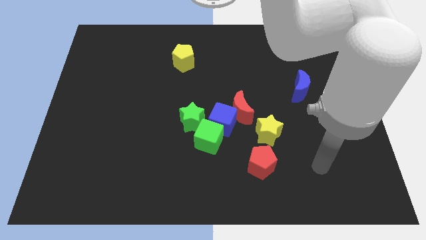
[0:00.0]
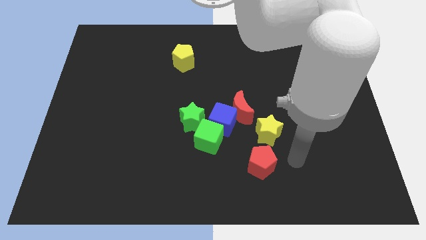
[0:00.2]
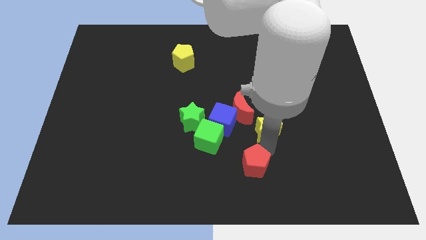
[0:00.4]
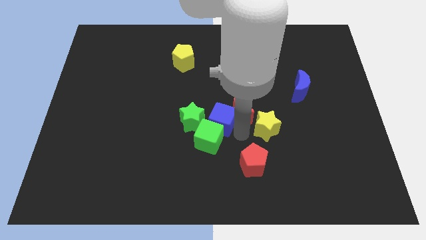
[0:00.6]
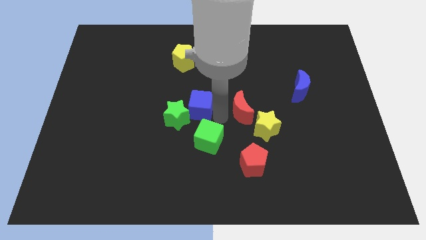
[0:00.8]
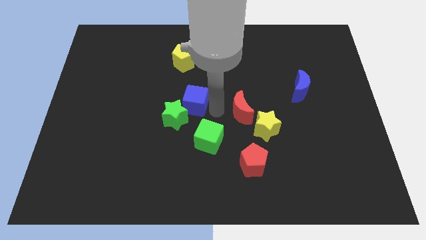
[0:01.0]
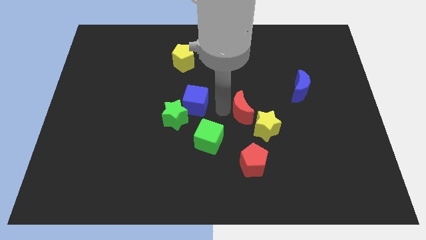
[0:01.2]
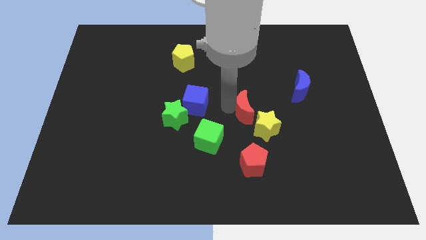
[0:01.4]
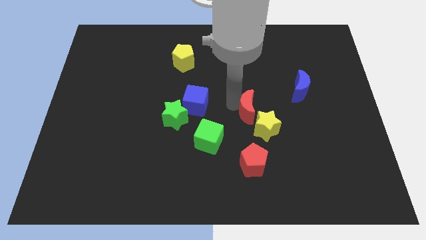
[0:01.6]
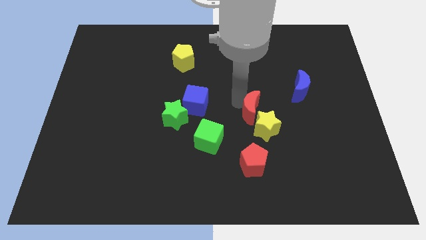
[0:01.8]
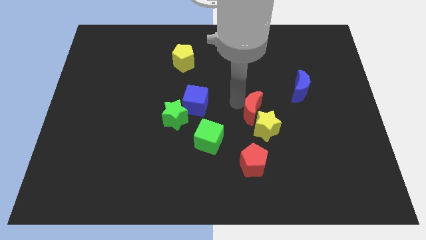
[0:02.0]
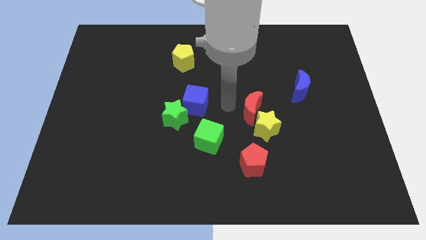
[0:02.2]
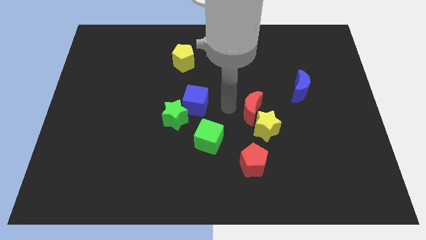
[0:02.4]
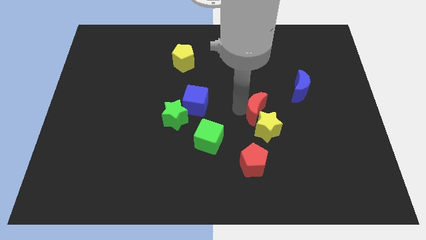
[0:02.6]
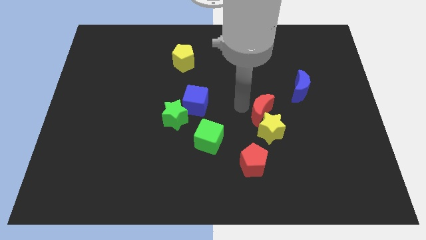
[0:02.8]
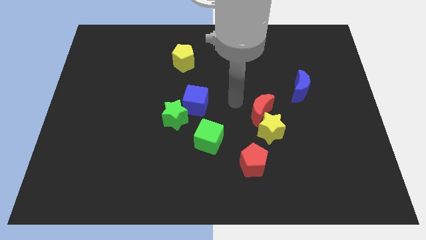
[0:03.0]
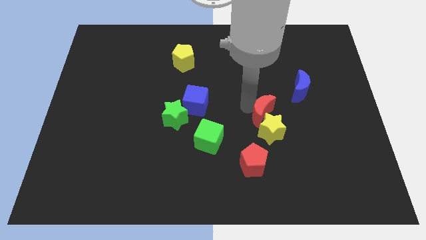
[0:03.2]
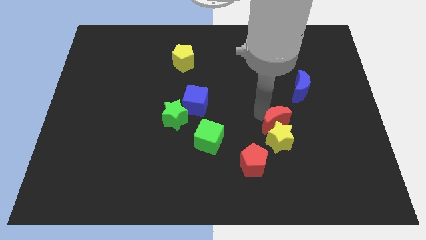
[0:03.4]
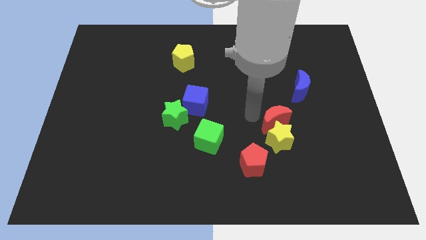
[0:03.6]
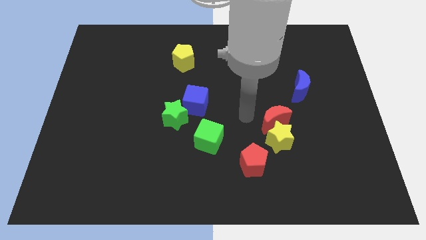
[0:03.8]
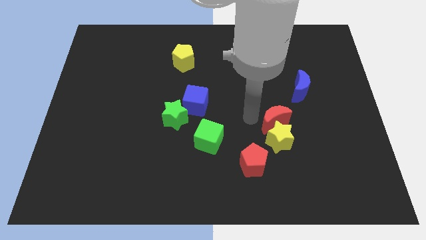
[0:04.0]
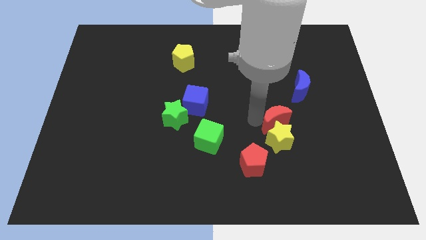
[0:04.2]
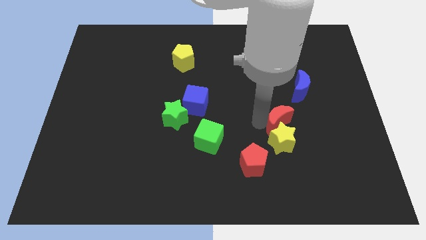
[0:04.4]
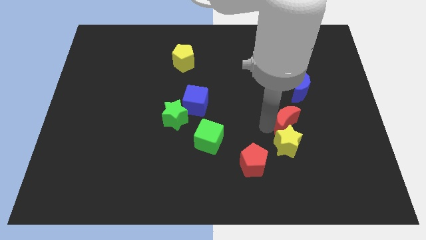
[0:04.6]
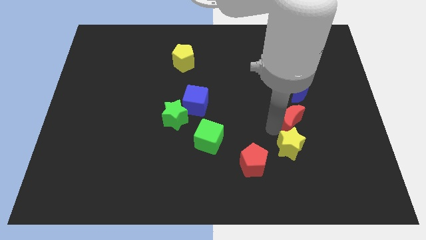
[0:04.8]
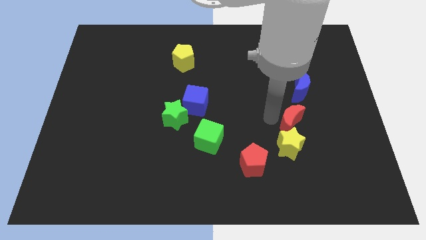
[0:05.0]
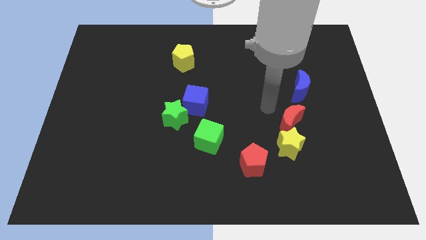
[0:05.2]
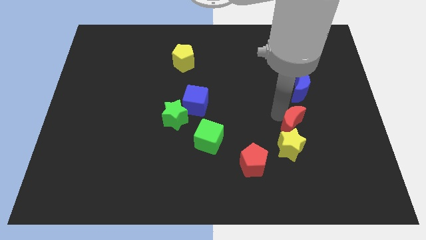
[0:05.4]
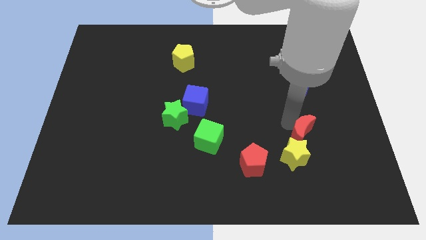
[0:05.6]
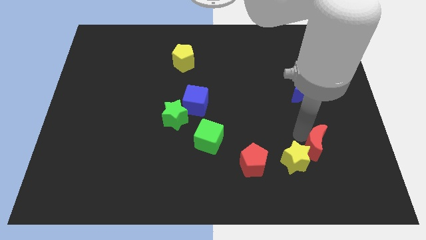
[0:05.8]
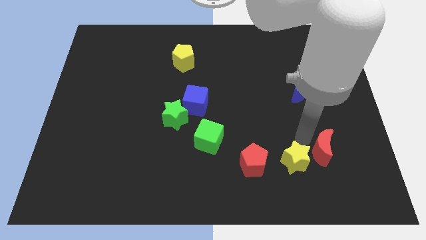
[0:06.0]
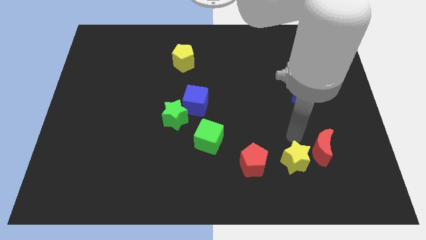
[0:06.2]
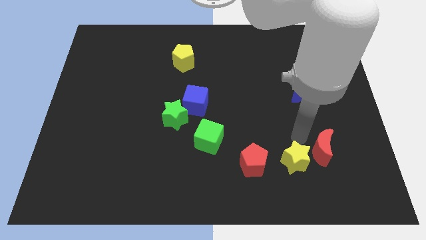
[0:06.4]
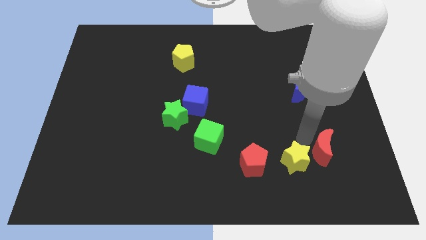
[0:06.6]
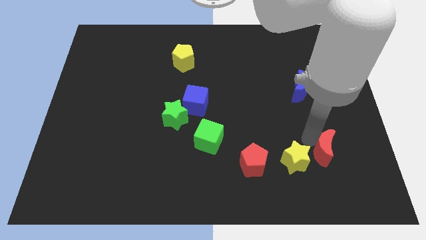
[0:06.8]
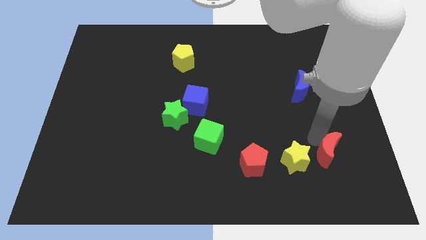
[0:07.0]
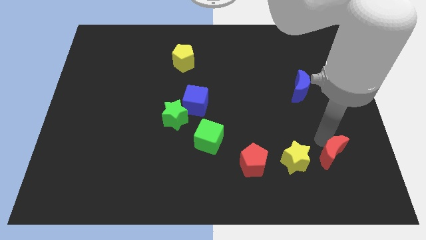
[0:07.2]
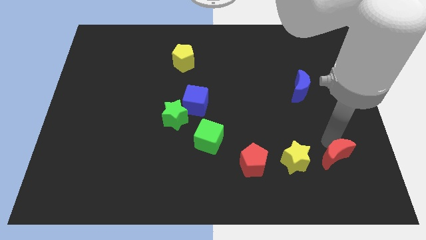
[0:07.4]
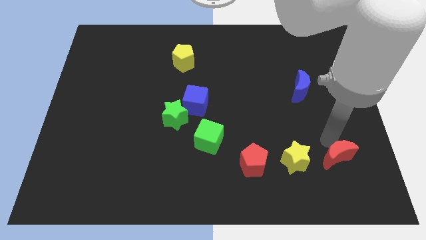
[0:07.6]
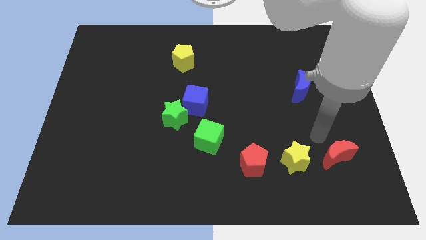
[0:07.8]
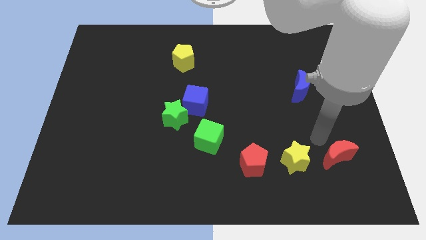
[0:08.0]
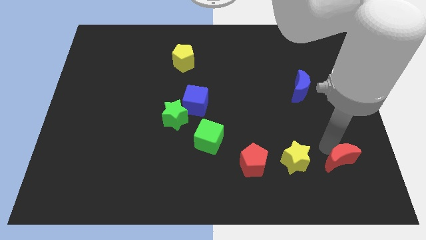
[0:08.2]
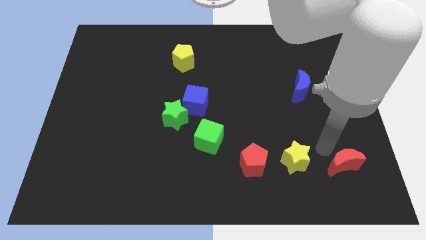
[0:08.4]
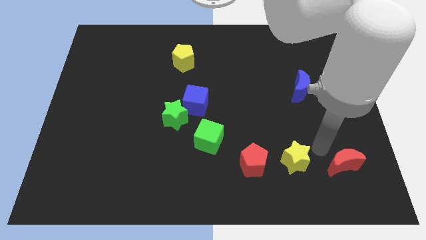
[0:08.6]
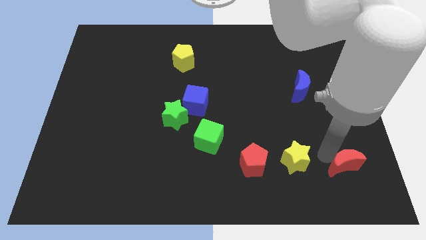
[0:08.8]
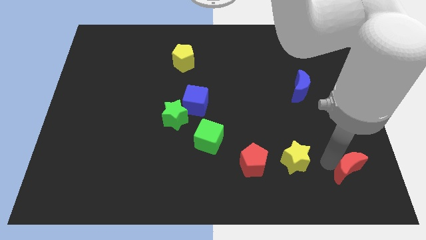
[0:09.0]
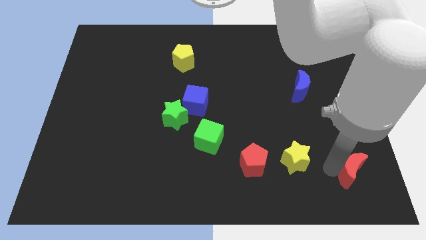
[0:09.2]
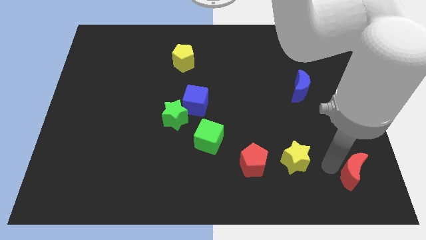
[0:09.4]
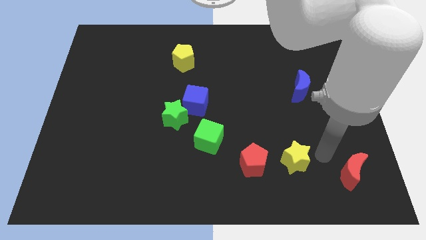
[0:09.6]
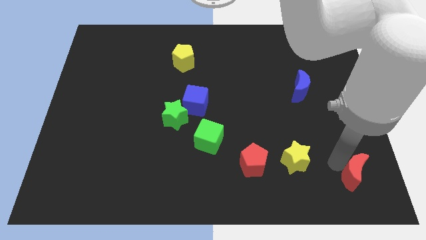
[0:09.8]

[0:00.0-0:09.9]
push the red moon to the bottom right corner

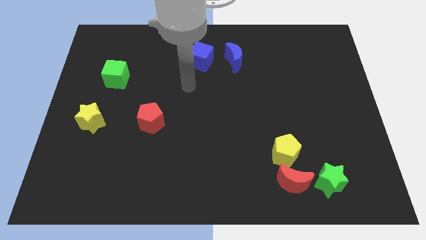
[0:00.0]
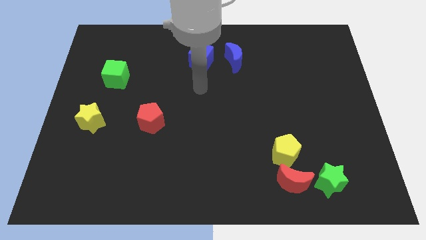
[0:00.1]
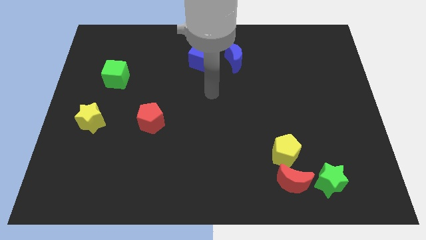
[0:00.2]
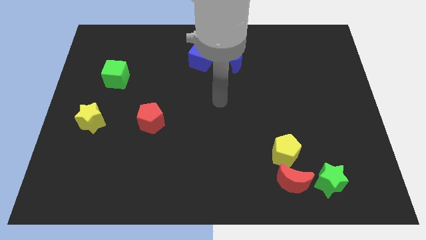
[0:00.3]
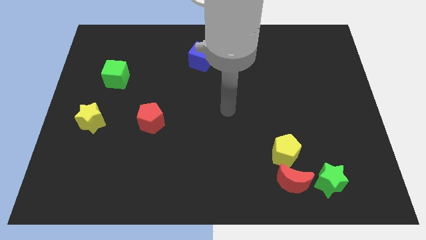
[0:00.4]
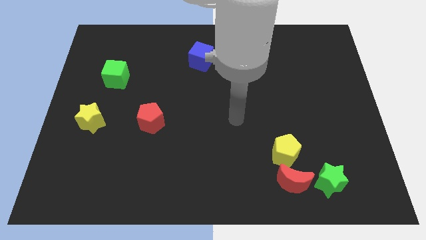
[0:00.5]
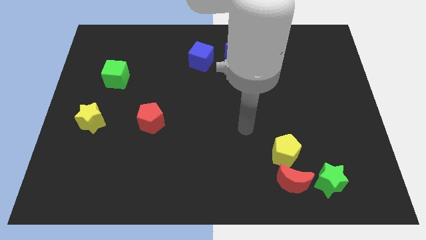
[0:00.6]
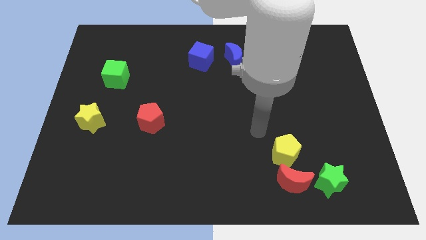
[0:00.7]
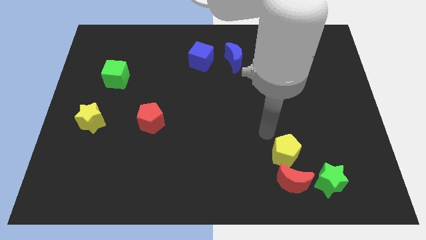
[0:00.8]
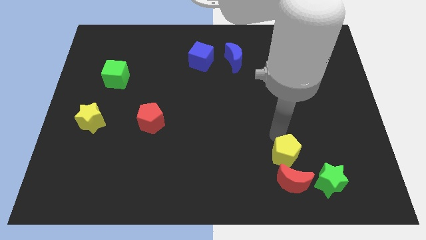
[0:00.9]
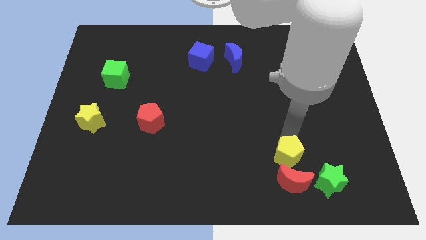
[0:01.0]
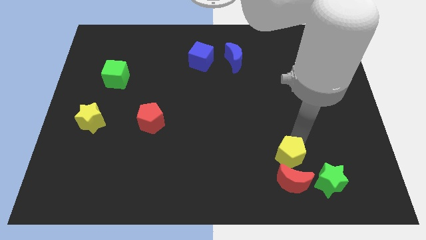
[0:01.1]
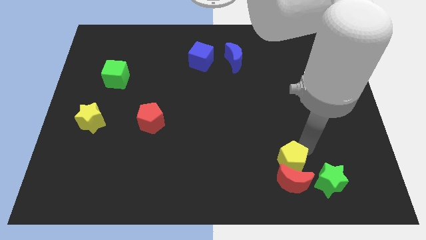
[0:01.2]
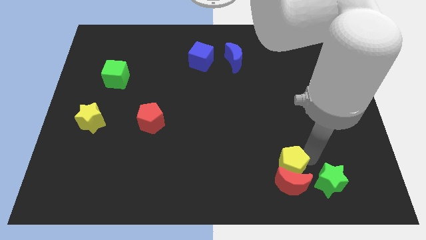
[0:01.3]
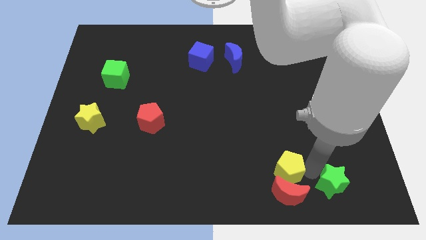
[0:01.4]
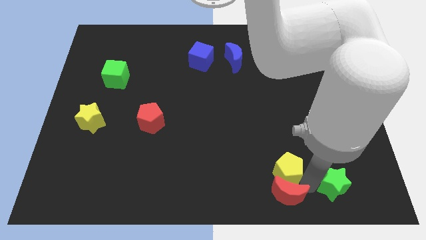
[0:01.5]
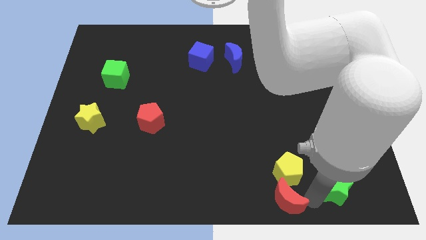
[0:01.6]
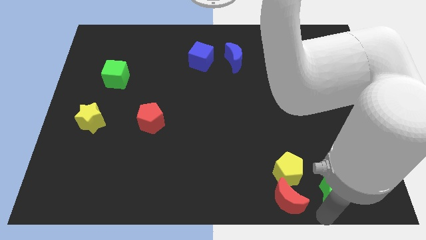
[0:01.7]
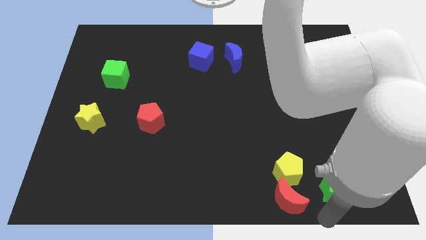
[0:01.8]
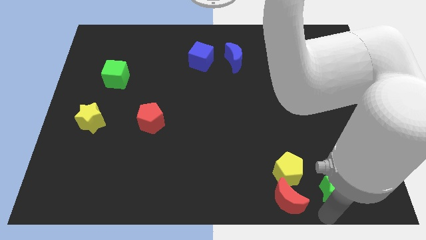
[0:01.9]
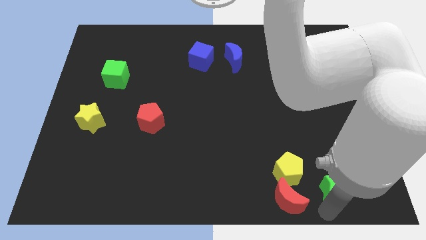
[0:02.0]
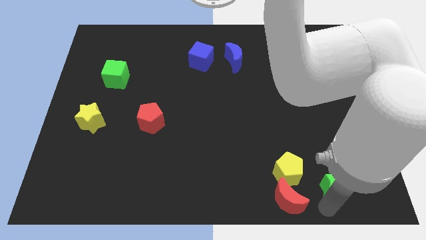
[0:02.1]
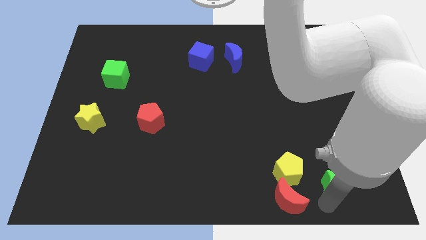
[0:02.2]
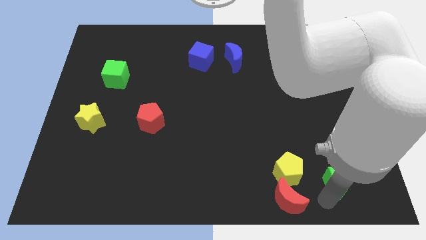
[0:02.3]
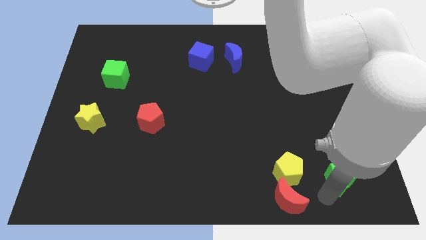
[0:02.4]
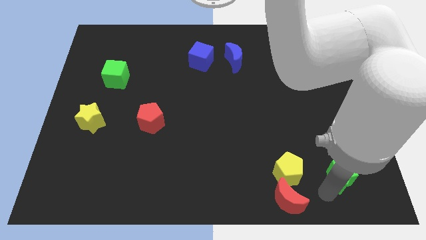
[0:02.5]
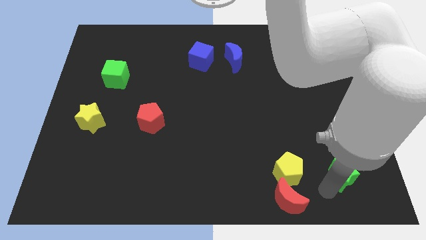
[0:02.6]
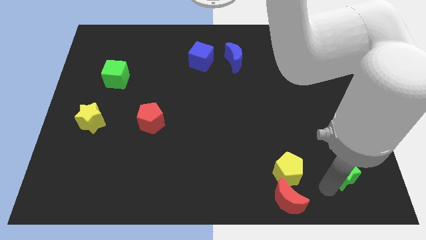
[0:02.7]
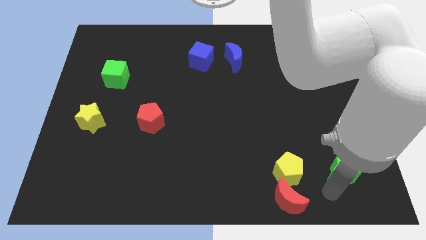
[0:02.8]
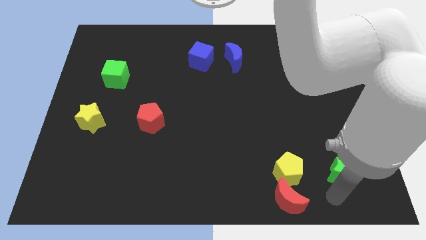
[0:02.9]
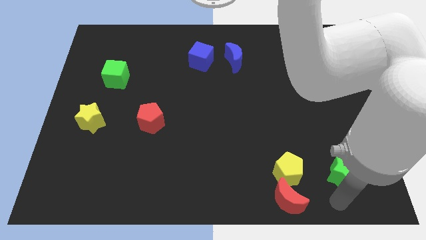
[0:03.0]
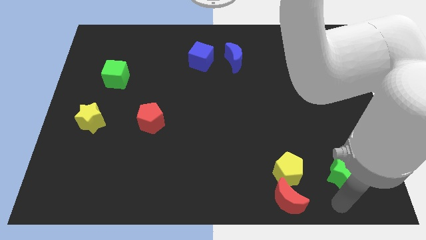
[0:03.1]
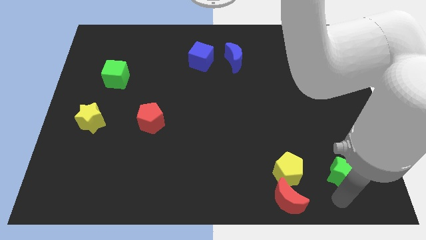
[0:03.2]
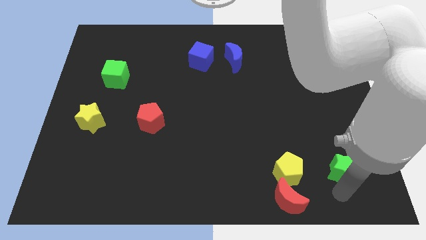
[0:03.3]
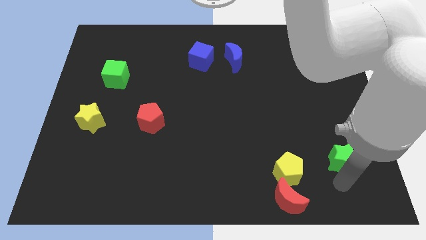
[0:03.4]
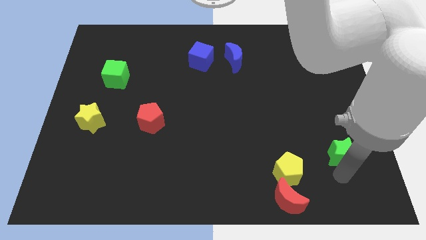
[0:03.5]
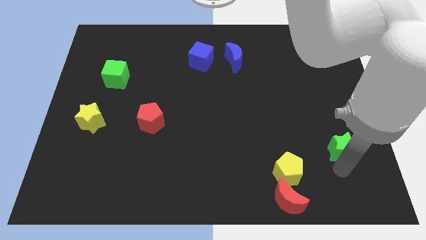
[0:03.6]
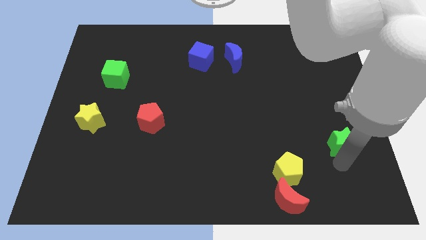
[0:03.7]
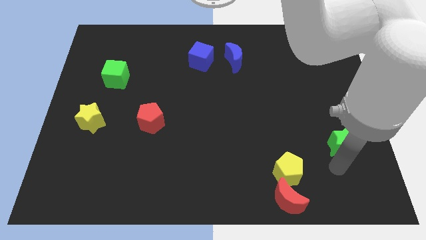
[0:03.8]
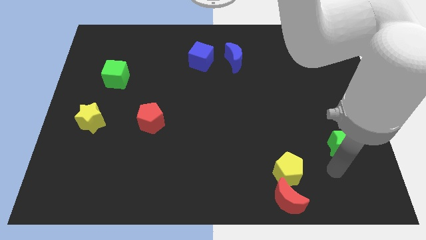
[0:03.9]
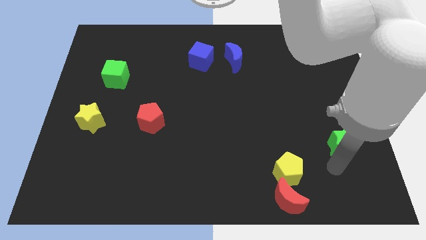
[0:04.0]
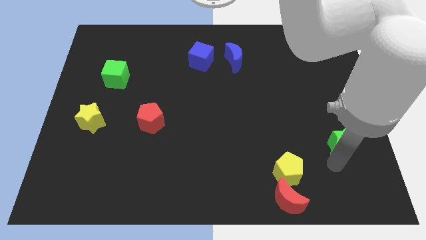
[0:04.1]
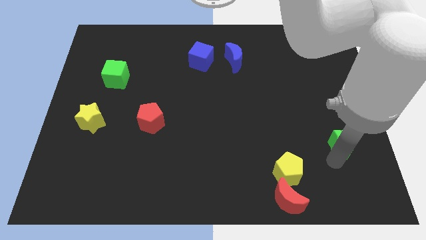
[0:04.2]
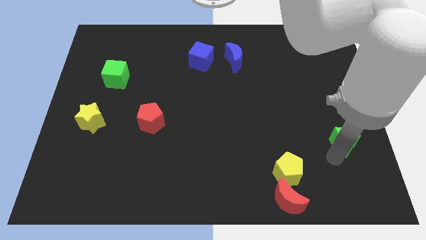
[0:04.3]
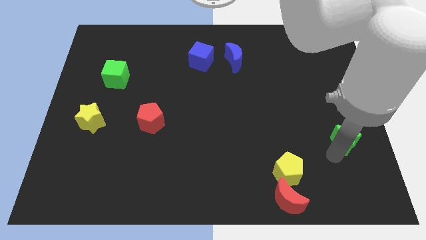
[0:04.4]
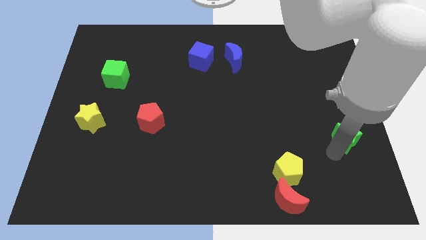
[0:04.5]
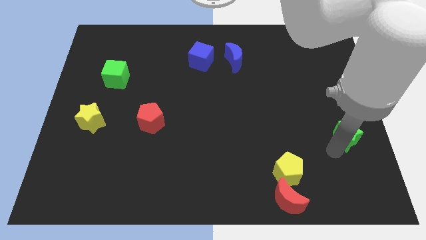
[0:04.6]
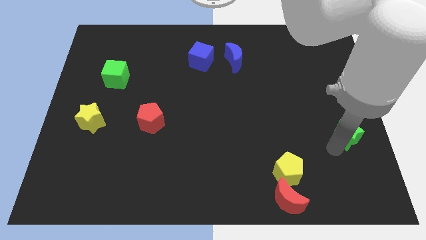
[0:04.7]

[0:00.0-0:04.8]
move the green star to the right side
